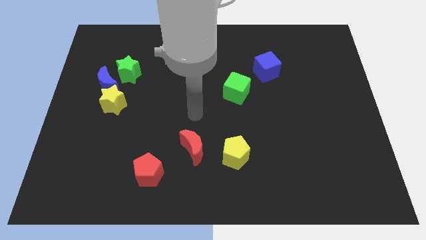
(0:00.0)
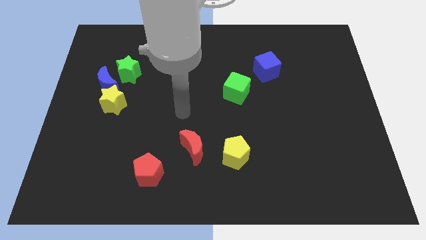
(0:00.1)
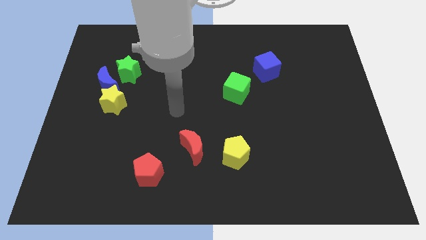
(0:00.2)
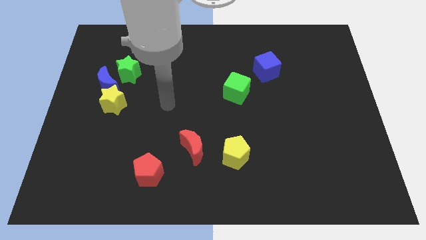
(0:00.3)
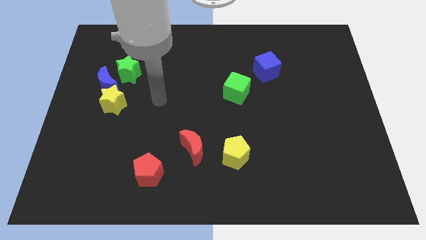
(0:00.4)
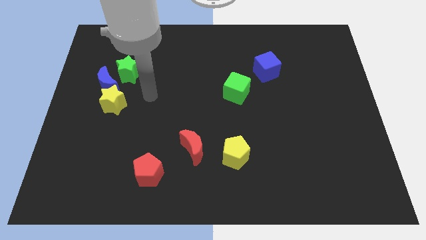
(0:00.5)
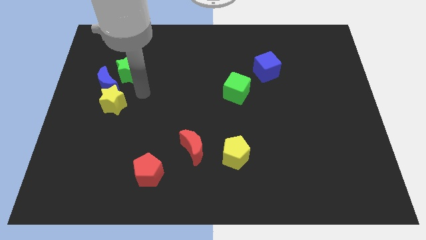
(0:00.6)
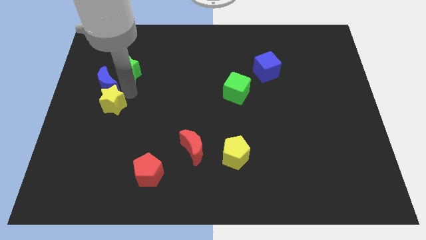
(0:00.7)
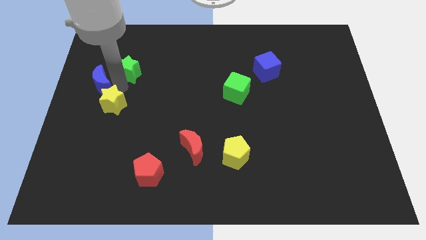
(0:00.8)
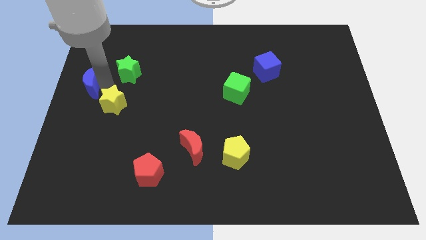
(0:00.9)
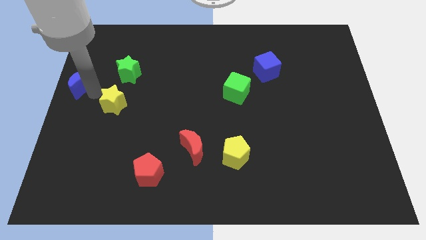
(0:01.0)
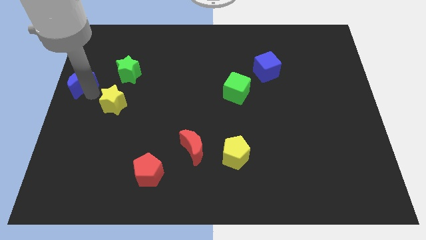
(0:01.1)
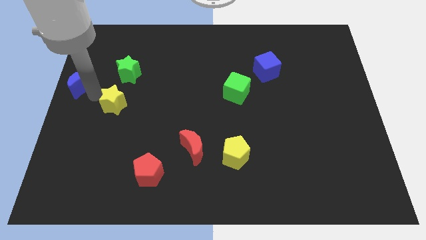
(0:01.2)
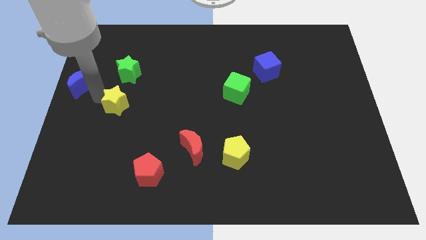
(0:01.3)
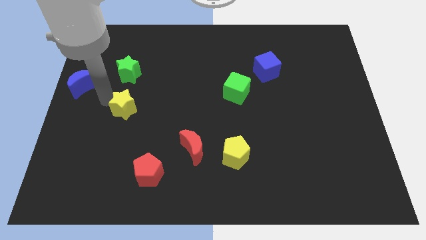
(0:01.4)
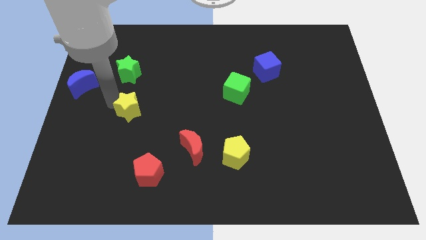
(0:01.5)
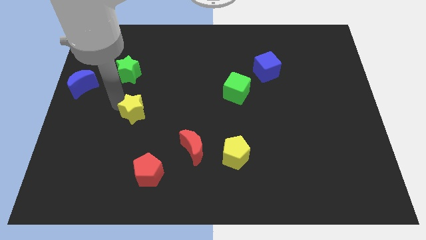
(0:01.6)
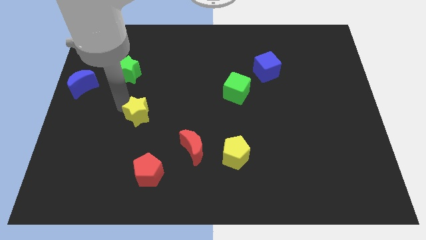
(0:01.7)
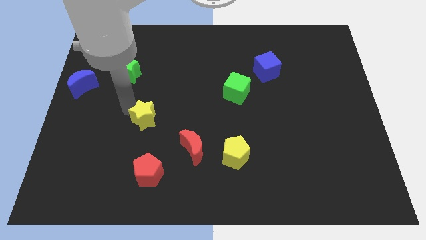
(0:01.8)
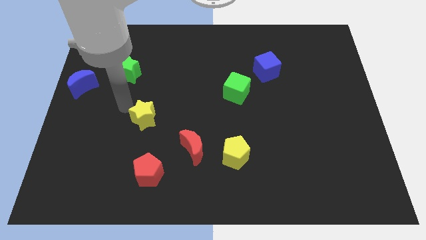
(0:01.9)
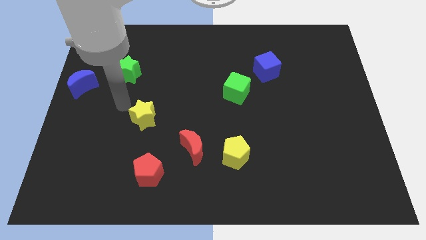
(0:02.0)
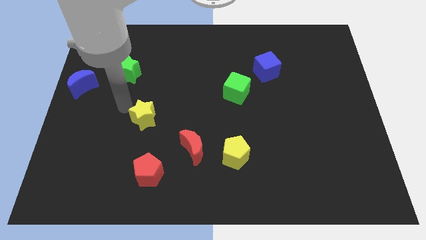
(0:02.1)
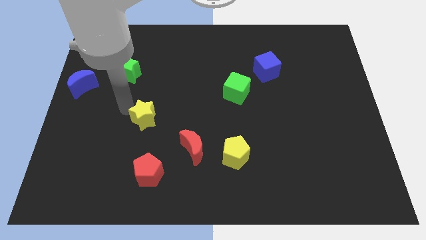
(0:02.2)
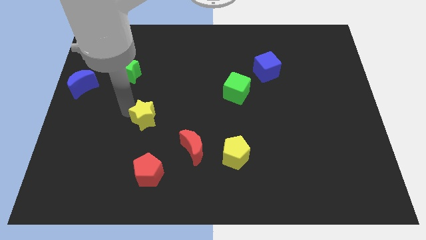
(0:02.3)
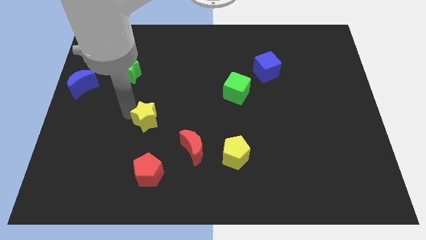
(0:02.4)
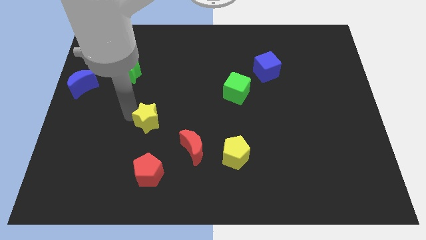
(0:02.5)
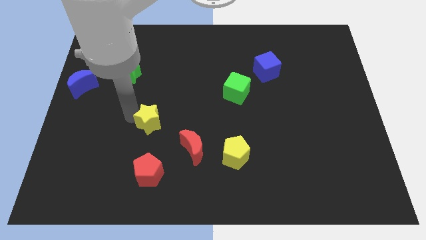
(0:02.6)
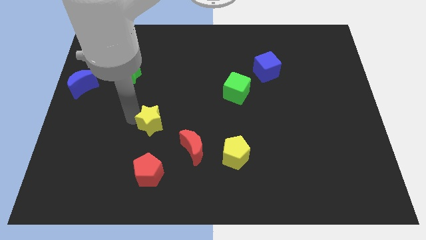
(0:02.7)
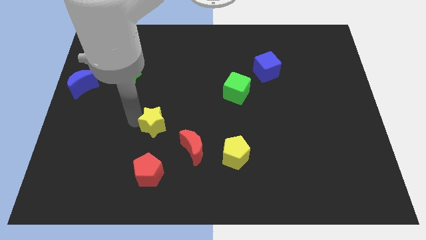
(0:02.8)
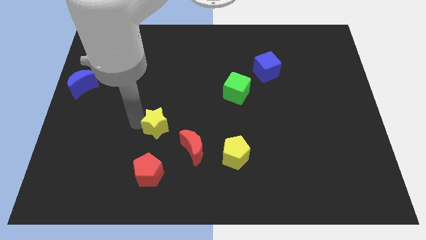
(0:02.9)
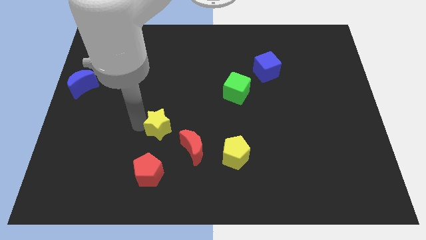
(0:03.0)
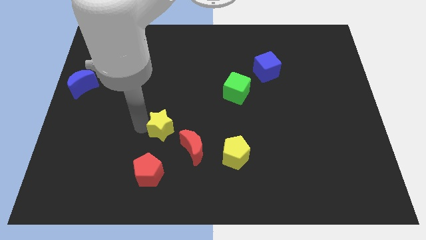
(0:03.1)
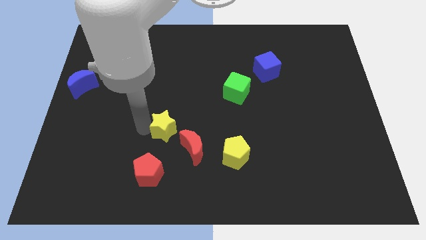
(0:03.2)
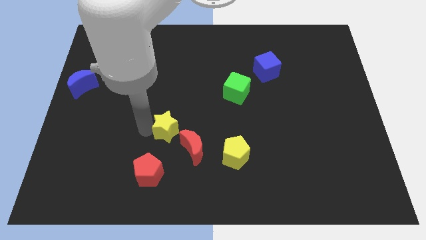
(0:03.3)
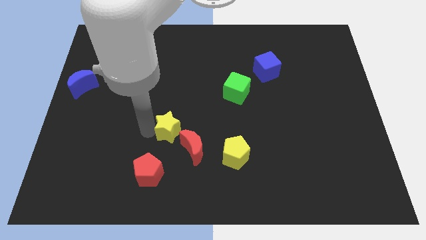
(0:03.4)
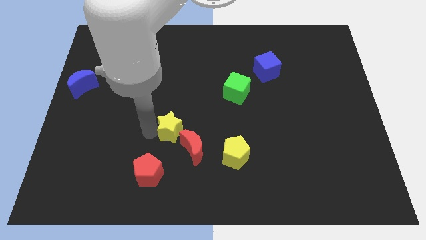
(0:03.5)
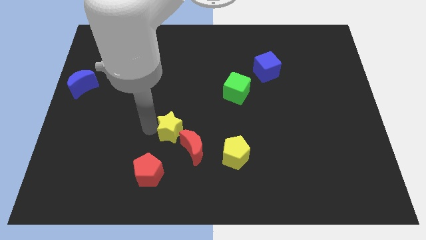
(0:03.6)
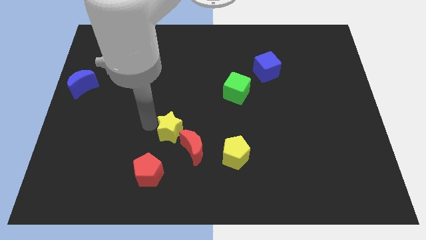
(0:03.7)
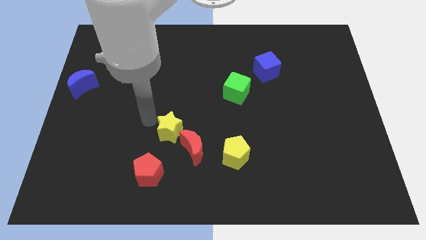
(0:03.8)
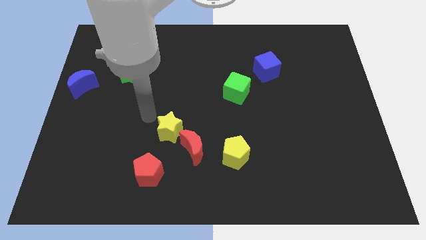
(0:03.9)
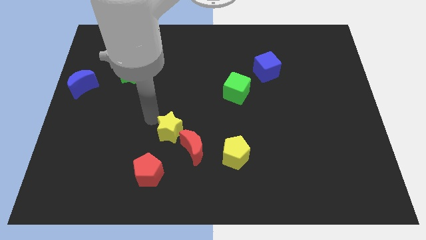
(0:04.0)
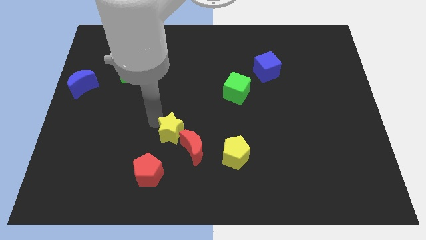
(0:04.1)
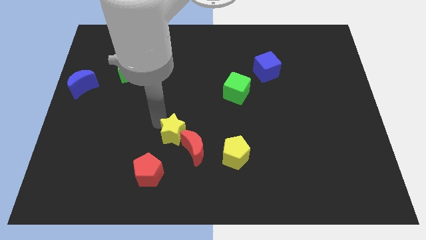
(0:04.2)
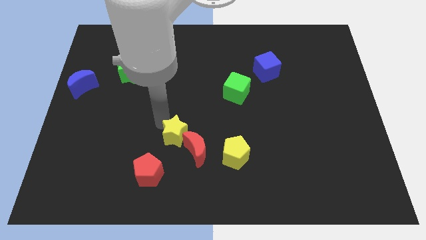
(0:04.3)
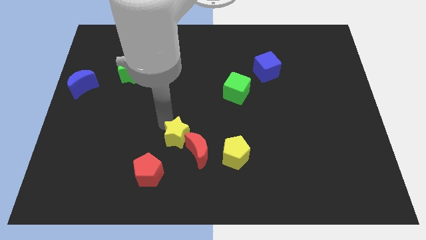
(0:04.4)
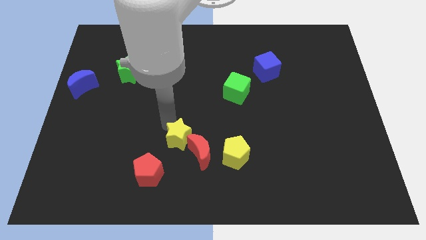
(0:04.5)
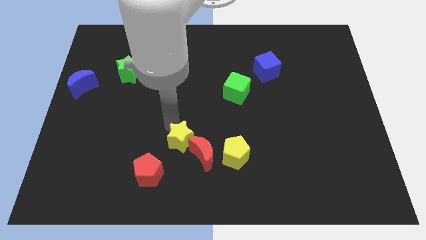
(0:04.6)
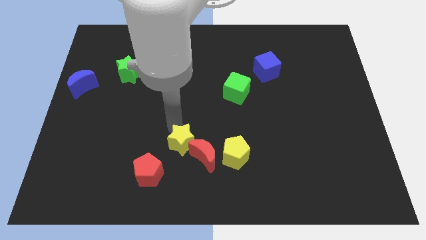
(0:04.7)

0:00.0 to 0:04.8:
put the yellow star to the red moon

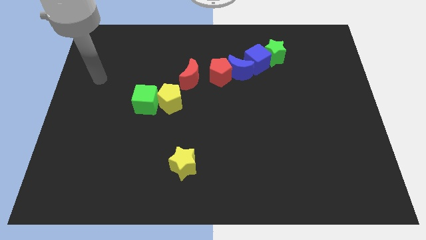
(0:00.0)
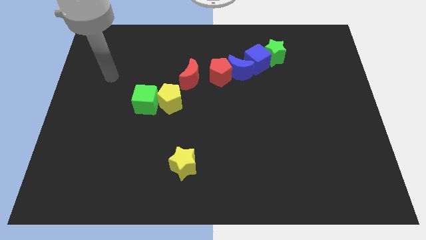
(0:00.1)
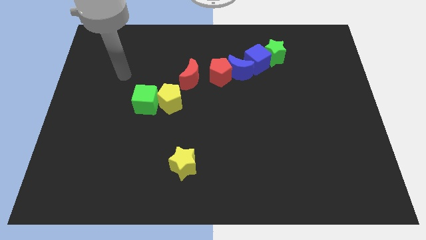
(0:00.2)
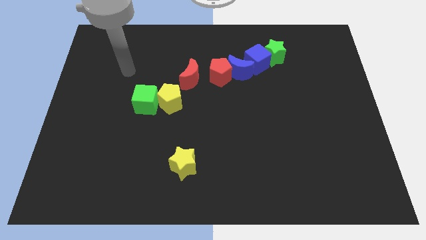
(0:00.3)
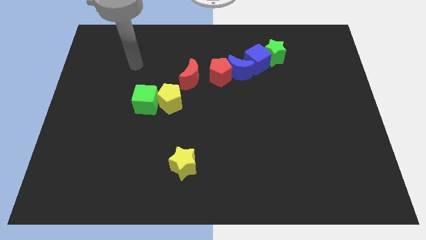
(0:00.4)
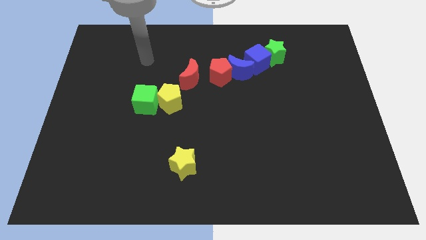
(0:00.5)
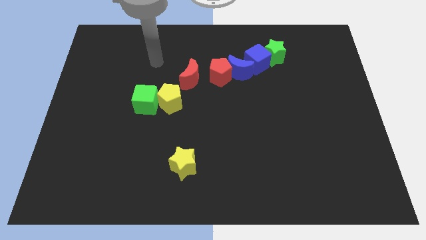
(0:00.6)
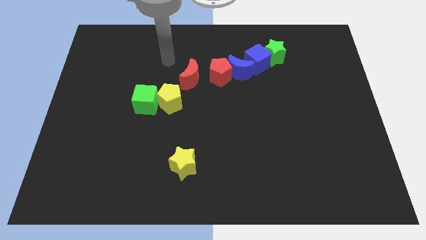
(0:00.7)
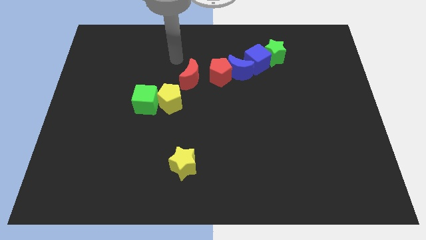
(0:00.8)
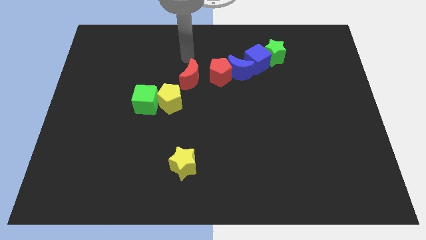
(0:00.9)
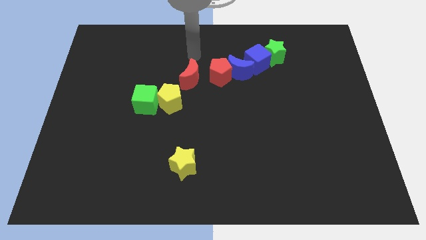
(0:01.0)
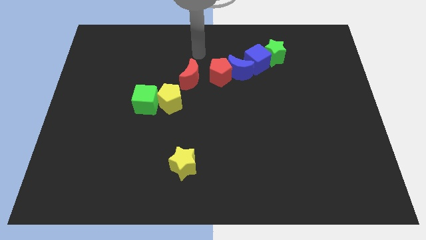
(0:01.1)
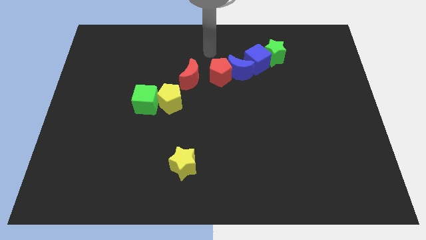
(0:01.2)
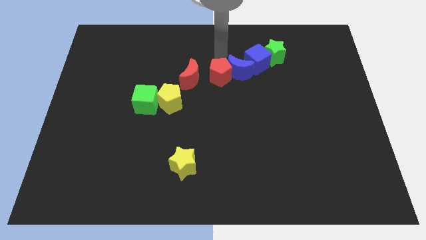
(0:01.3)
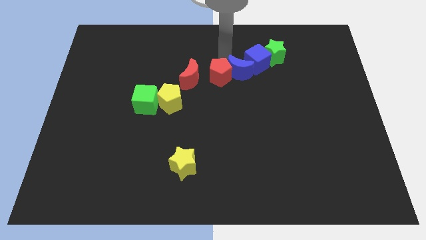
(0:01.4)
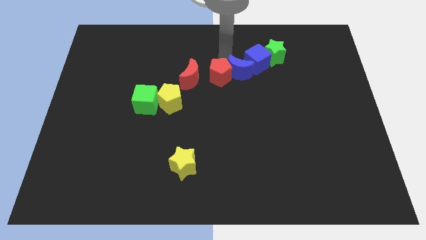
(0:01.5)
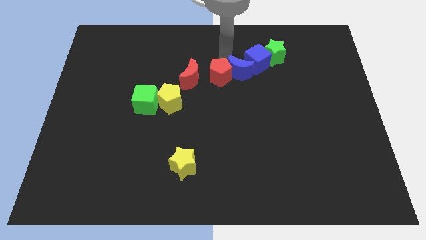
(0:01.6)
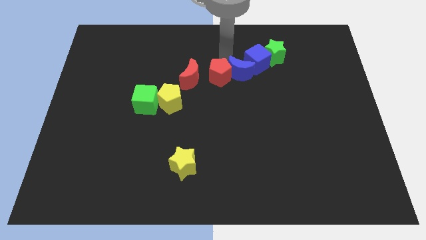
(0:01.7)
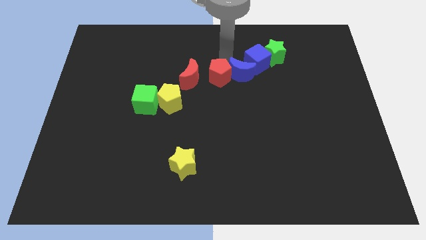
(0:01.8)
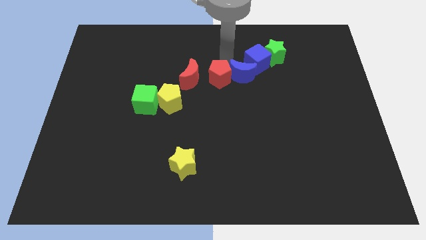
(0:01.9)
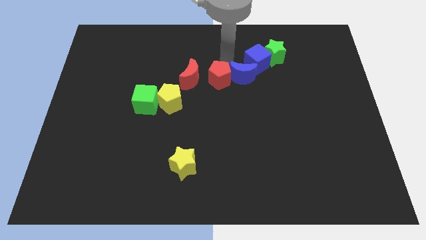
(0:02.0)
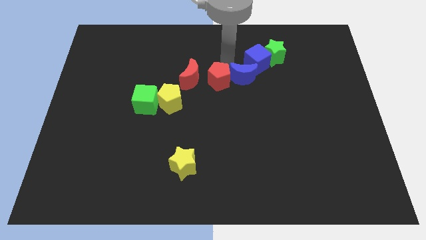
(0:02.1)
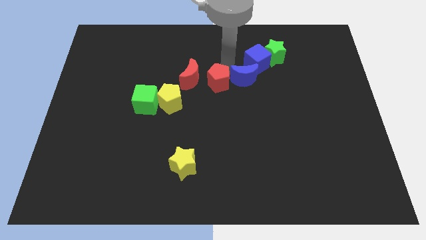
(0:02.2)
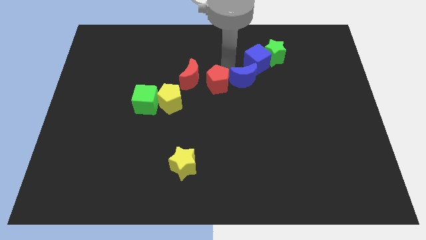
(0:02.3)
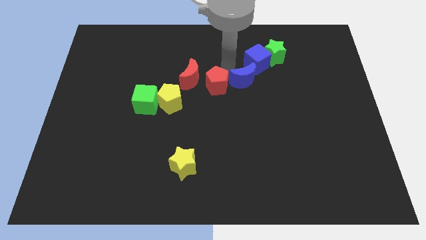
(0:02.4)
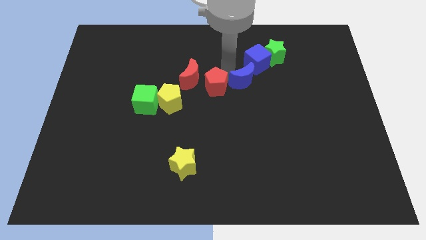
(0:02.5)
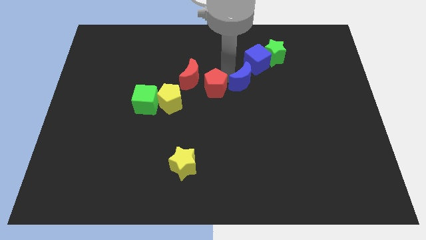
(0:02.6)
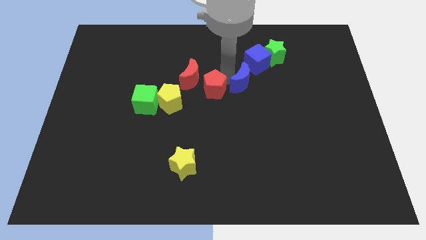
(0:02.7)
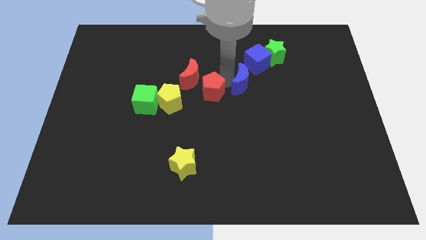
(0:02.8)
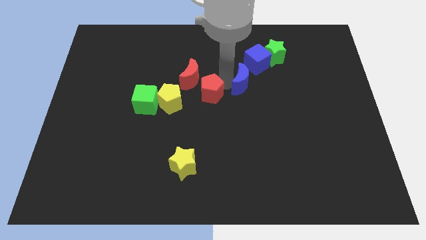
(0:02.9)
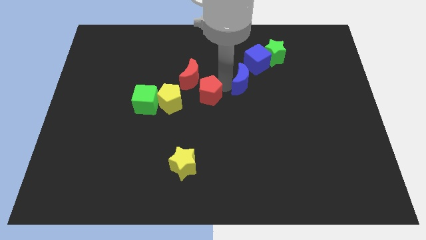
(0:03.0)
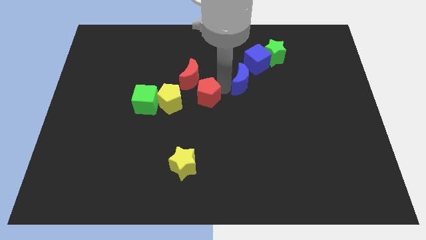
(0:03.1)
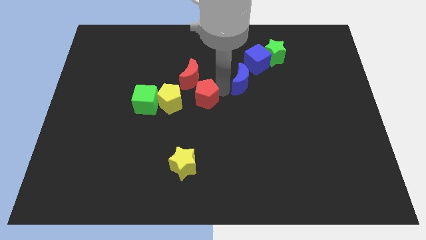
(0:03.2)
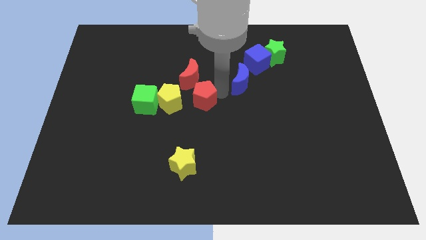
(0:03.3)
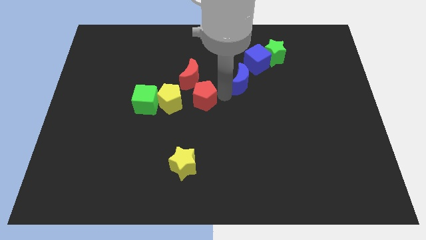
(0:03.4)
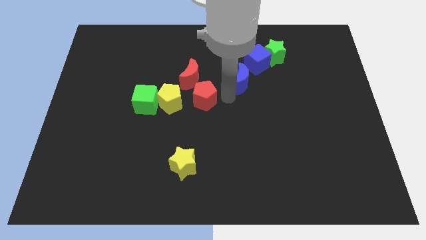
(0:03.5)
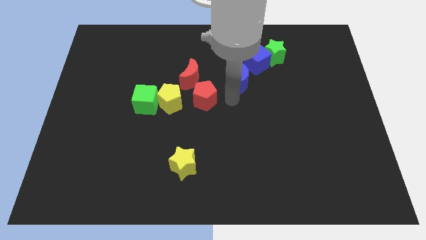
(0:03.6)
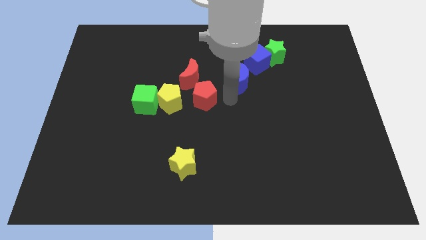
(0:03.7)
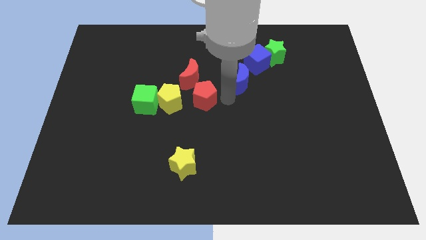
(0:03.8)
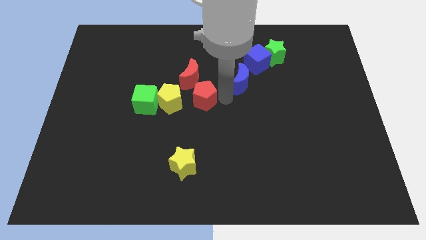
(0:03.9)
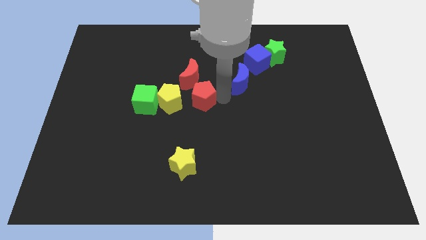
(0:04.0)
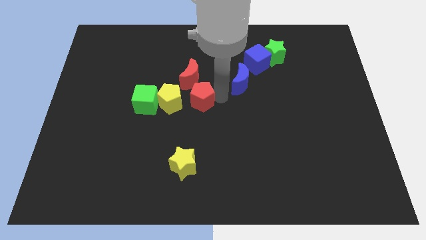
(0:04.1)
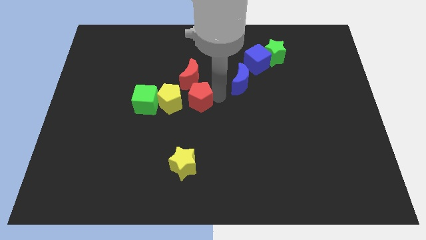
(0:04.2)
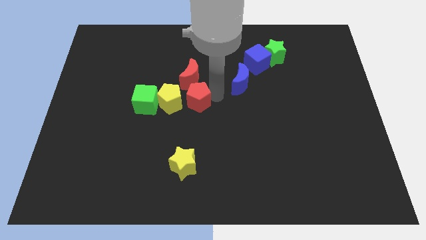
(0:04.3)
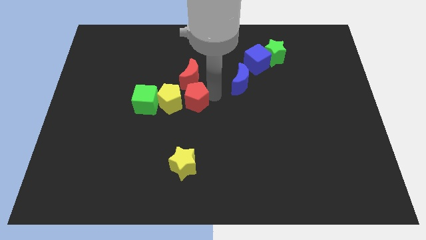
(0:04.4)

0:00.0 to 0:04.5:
move the red pentagon towards the yellow pentagon
